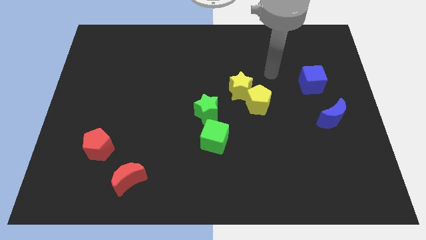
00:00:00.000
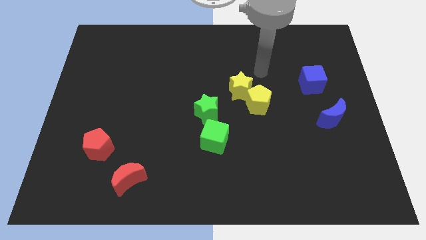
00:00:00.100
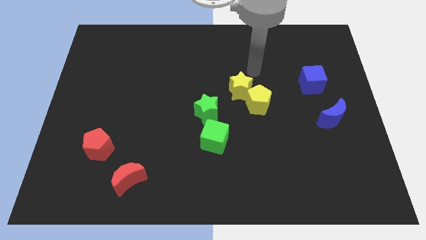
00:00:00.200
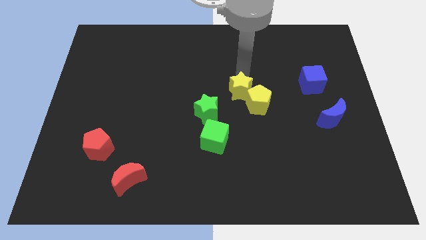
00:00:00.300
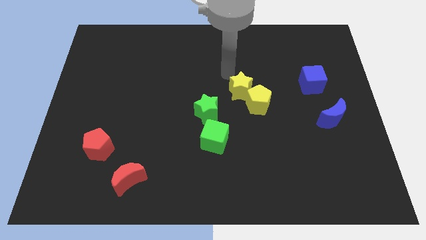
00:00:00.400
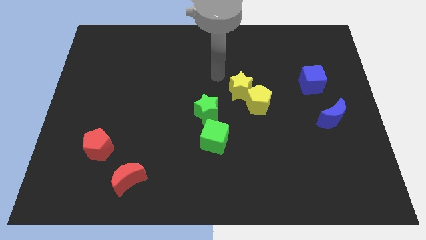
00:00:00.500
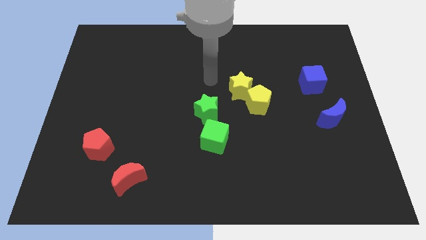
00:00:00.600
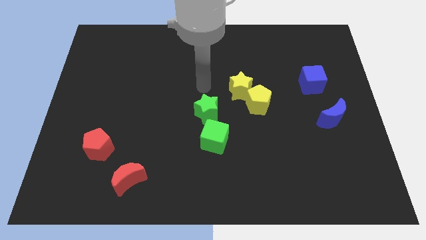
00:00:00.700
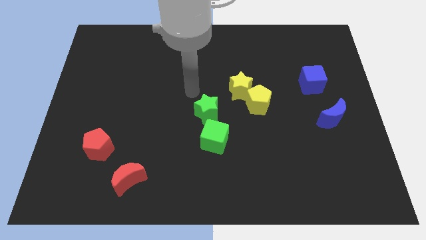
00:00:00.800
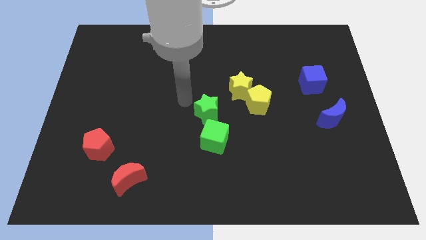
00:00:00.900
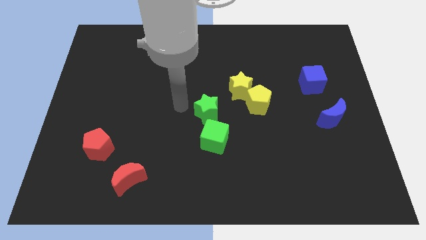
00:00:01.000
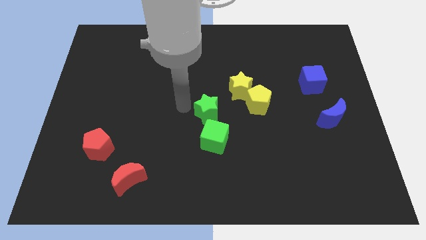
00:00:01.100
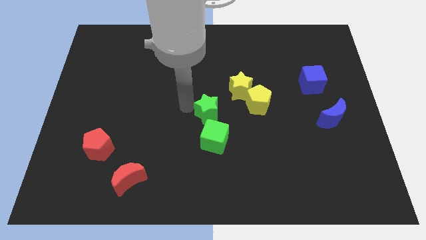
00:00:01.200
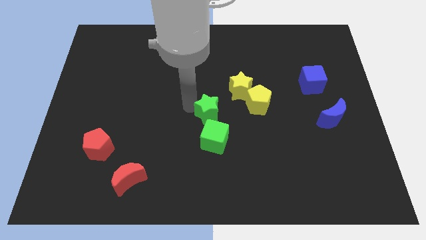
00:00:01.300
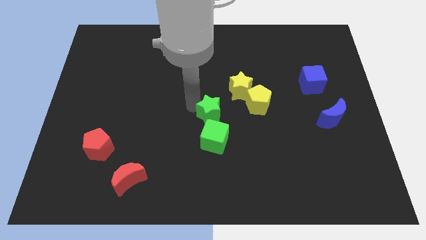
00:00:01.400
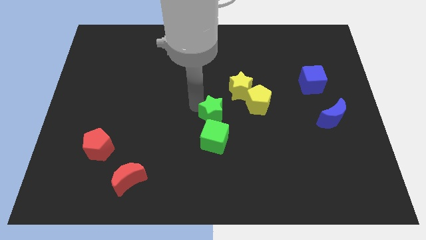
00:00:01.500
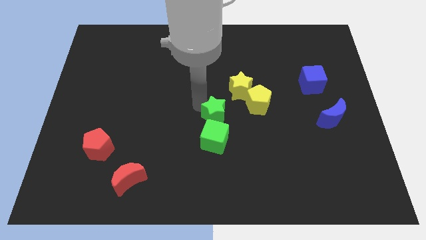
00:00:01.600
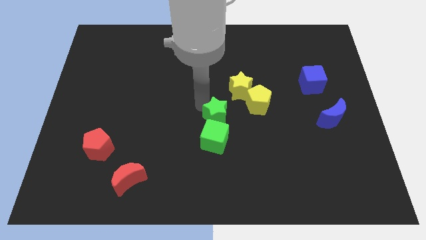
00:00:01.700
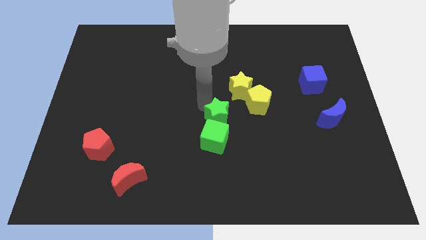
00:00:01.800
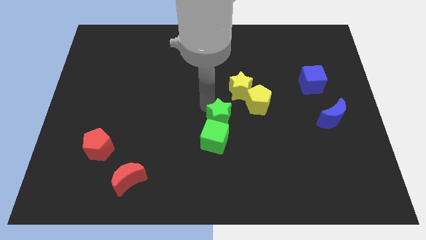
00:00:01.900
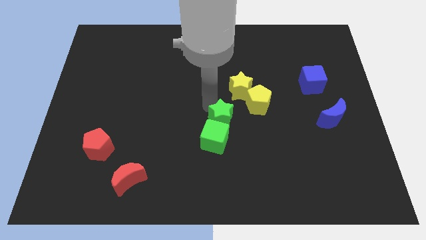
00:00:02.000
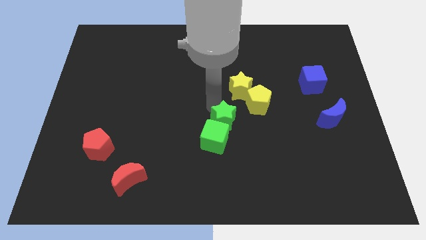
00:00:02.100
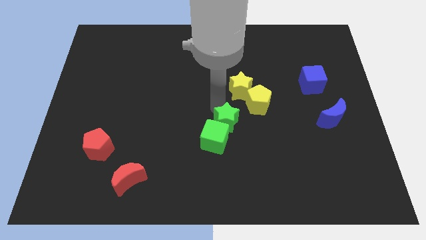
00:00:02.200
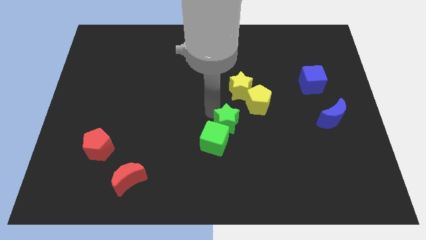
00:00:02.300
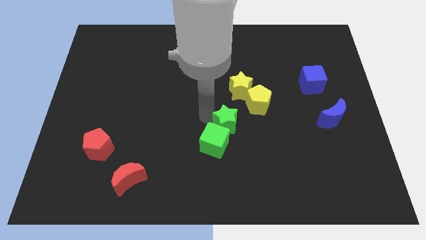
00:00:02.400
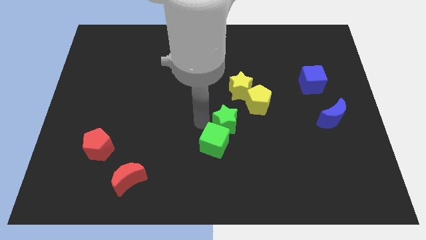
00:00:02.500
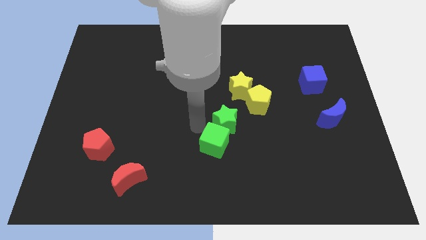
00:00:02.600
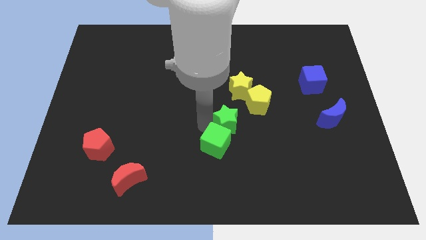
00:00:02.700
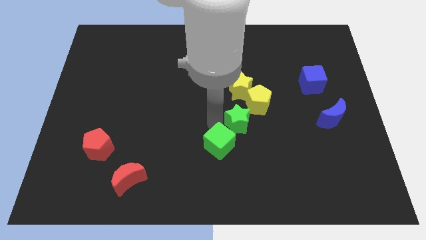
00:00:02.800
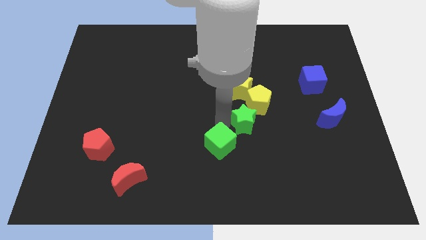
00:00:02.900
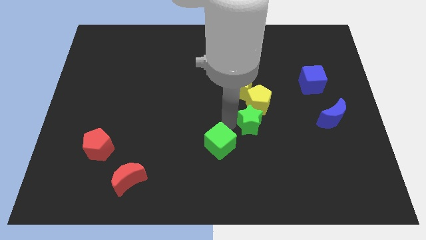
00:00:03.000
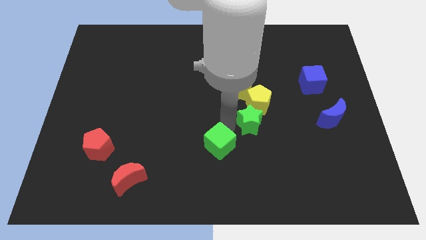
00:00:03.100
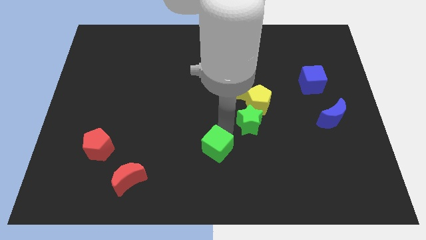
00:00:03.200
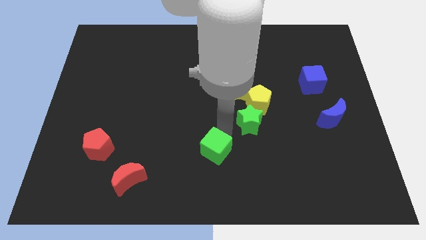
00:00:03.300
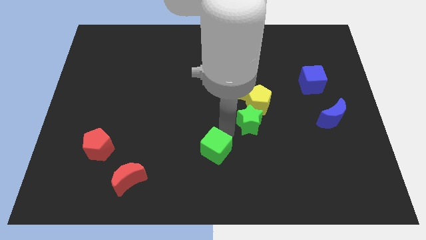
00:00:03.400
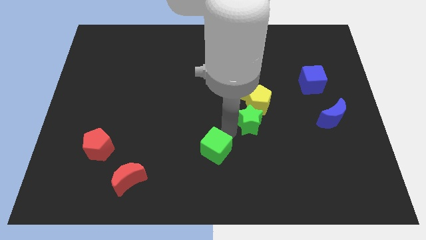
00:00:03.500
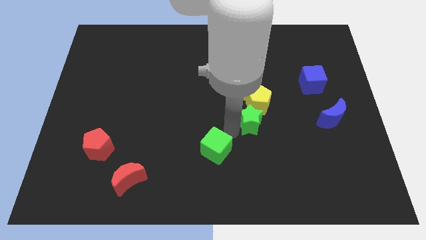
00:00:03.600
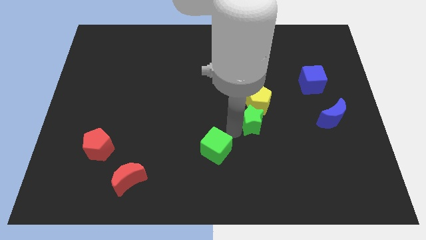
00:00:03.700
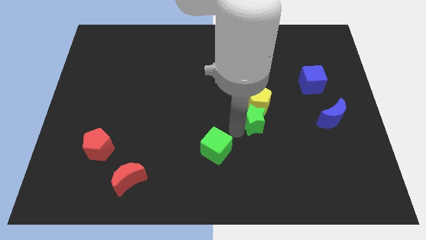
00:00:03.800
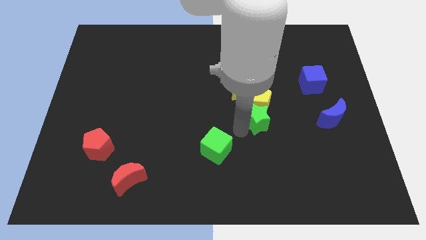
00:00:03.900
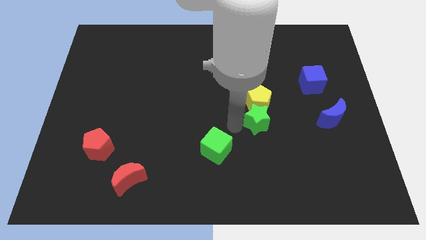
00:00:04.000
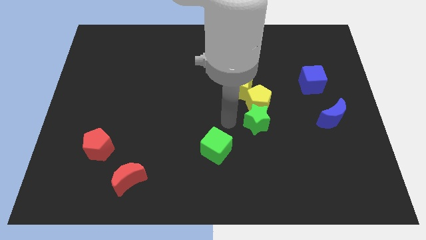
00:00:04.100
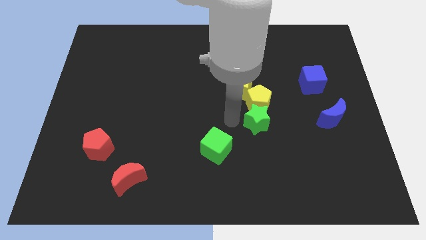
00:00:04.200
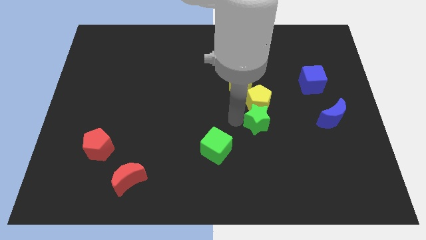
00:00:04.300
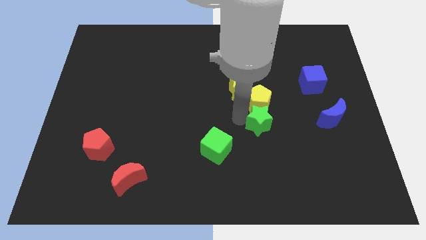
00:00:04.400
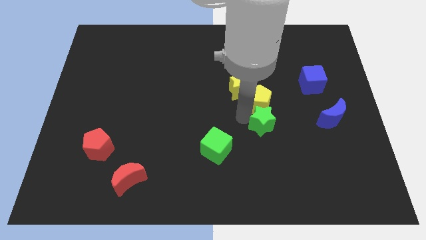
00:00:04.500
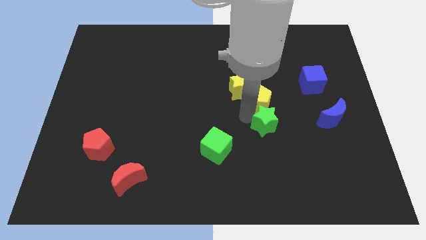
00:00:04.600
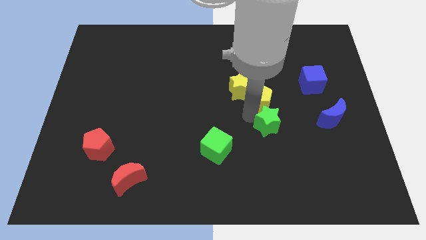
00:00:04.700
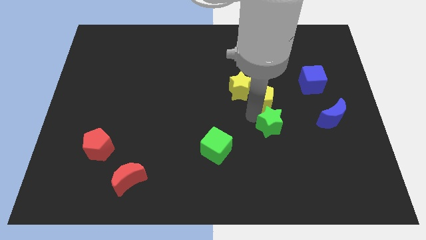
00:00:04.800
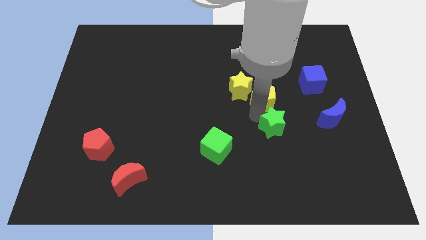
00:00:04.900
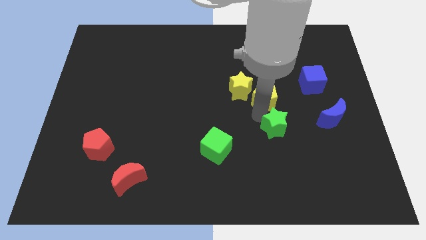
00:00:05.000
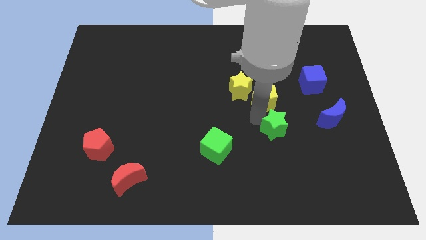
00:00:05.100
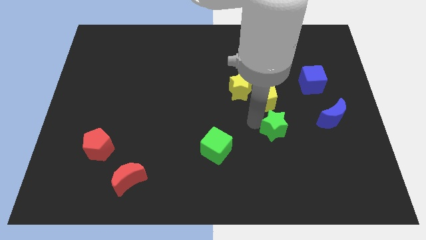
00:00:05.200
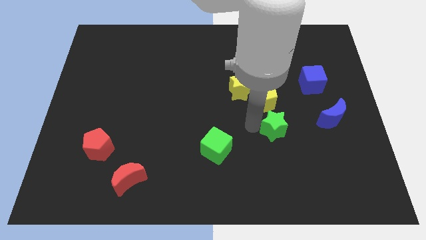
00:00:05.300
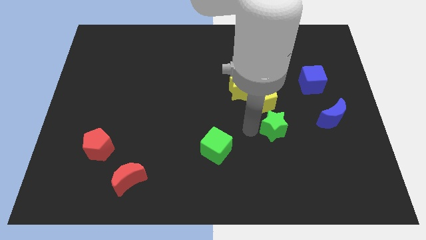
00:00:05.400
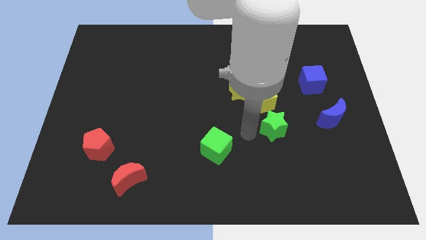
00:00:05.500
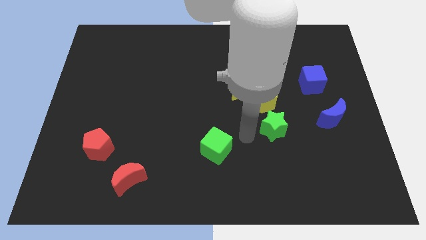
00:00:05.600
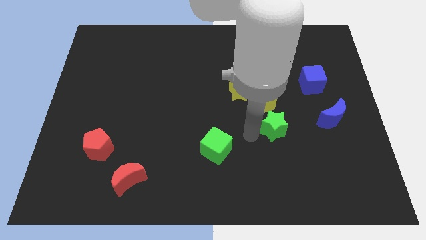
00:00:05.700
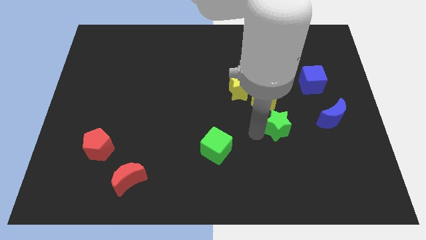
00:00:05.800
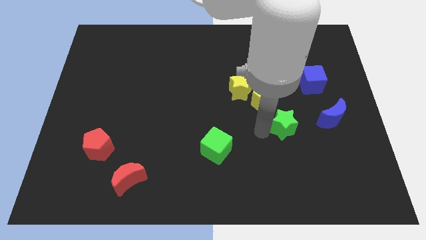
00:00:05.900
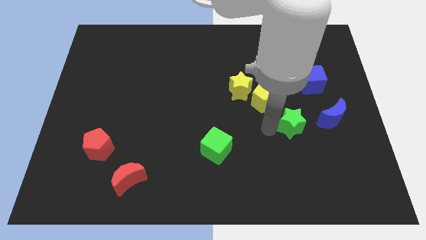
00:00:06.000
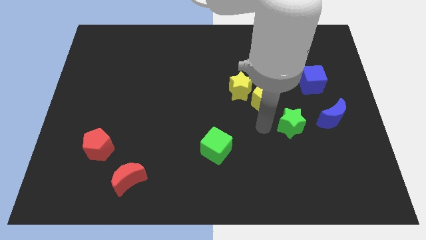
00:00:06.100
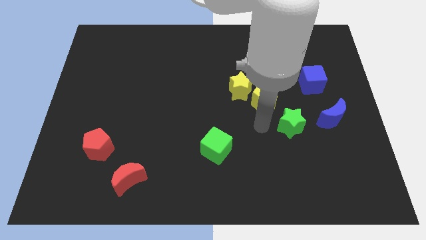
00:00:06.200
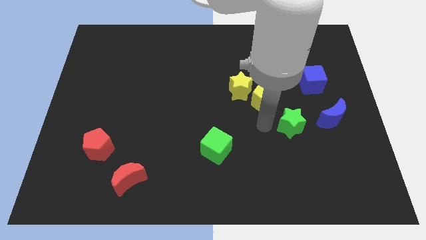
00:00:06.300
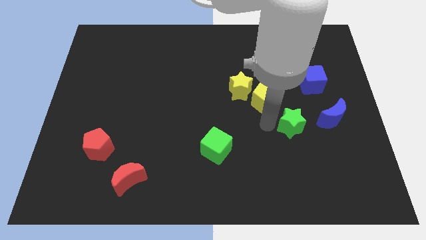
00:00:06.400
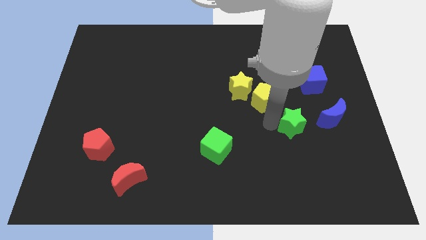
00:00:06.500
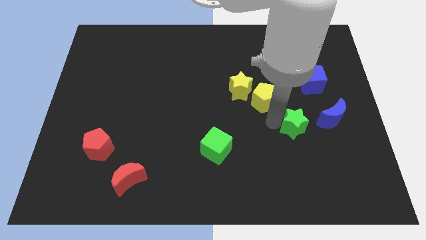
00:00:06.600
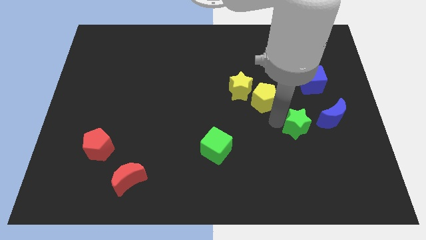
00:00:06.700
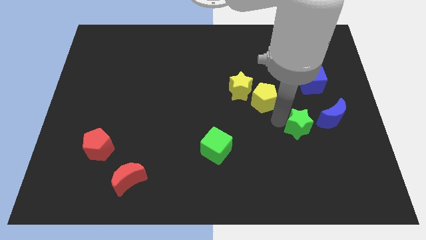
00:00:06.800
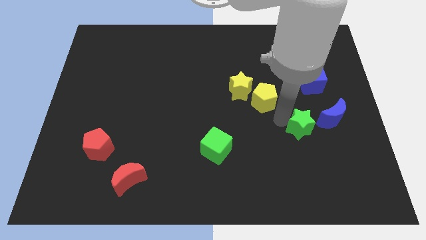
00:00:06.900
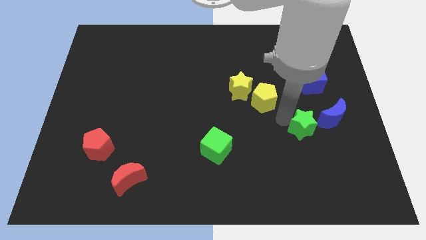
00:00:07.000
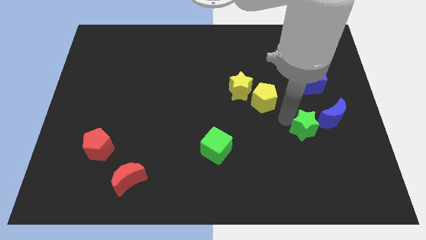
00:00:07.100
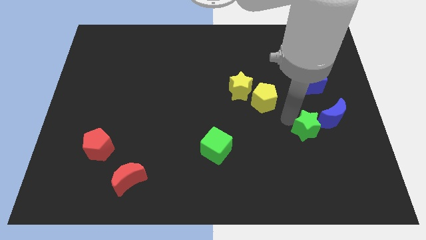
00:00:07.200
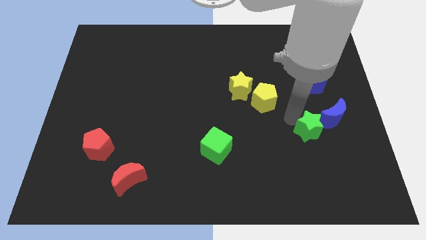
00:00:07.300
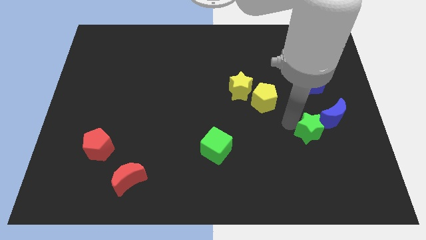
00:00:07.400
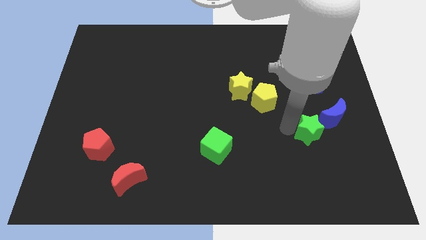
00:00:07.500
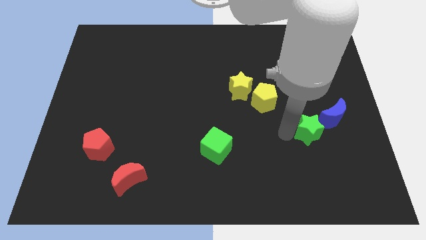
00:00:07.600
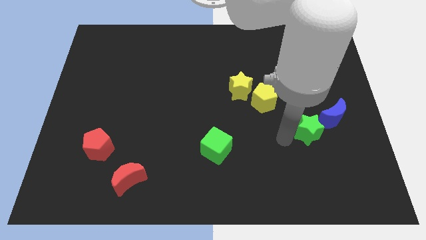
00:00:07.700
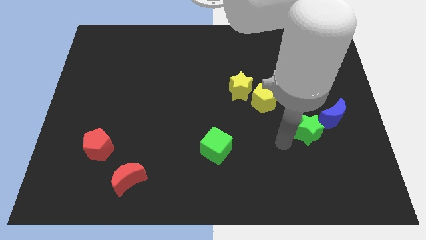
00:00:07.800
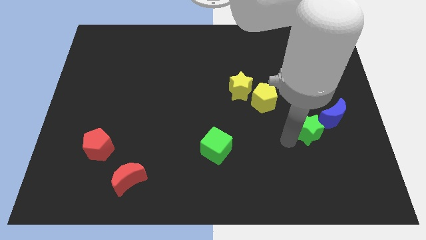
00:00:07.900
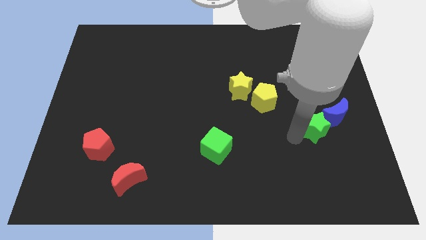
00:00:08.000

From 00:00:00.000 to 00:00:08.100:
move the green star towards the blue moon
